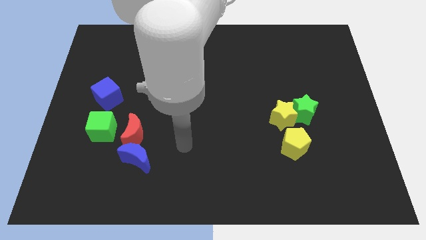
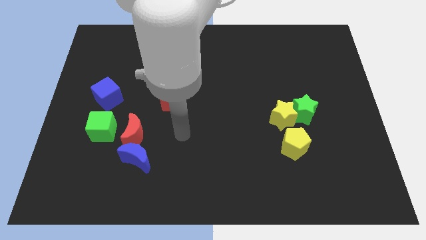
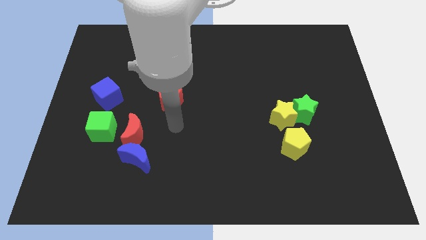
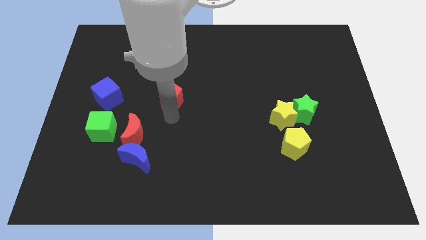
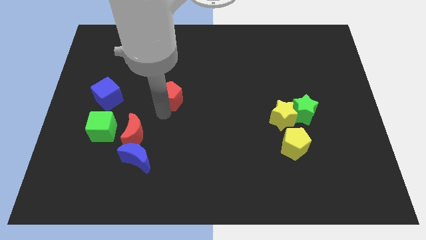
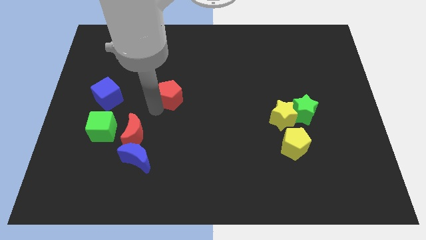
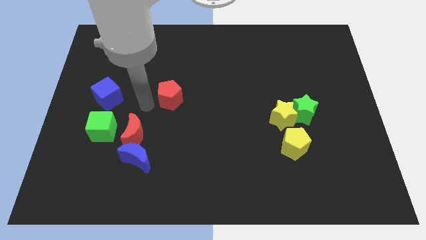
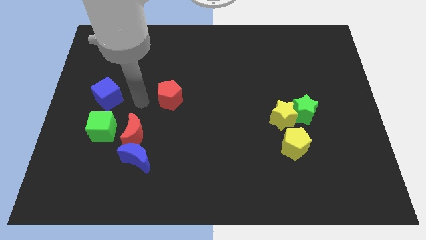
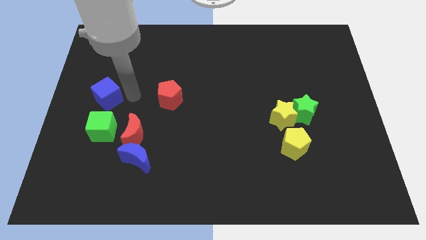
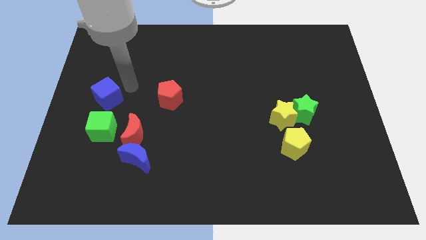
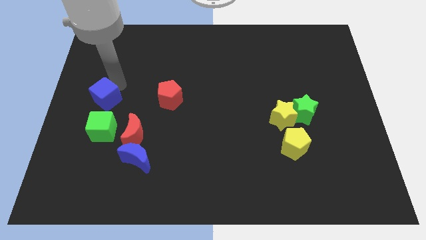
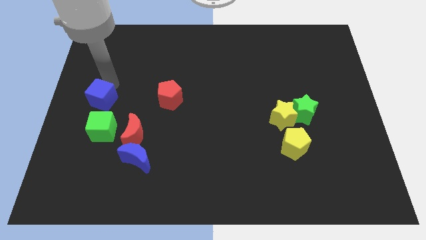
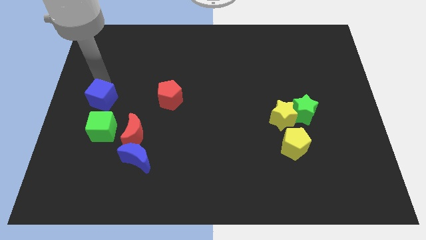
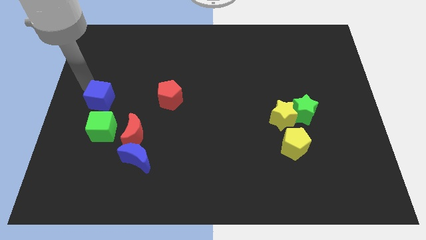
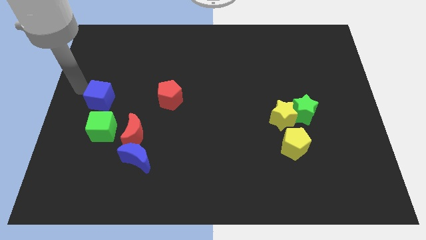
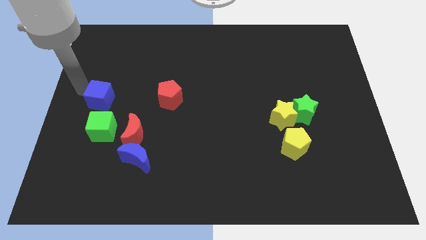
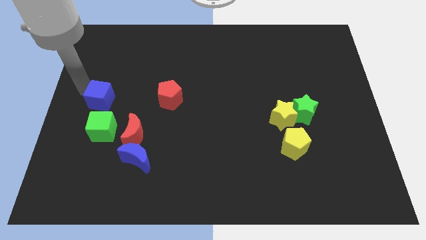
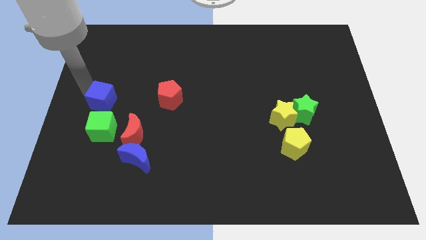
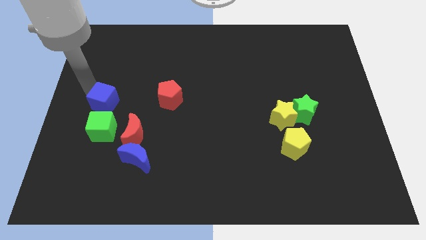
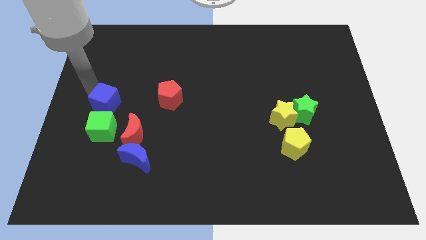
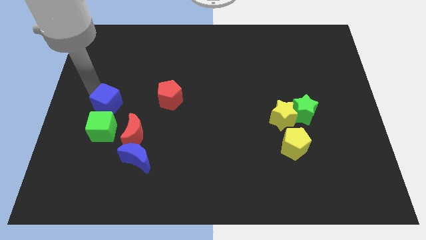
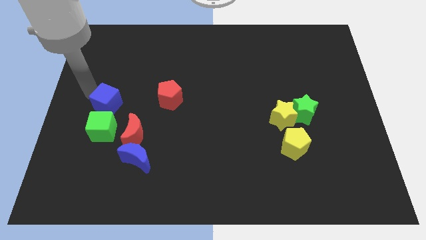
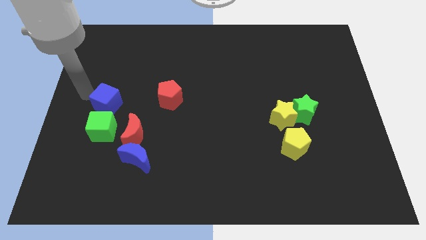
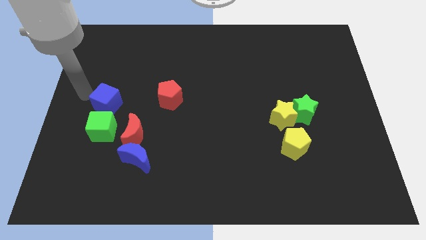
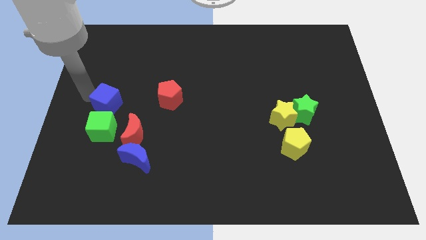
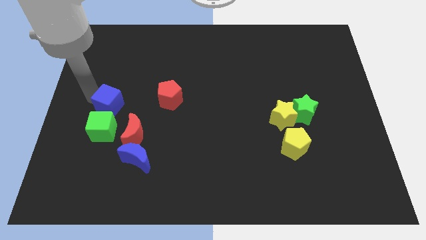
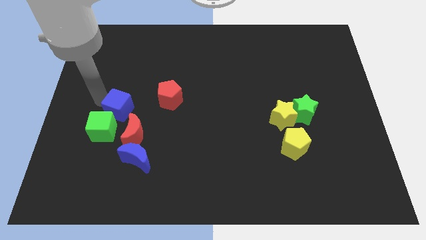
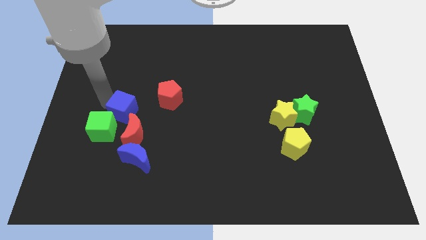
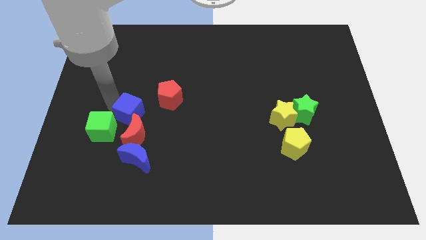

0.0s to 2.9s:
move the blue cube a little diagonally down and to the right

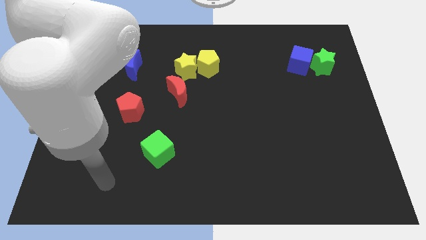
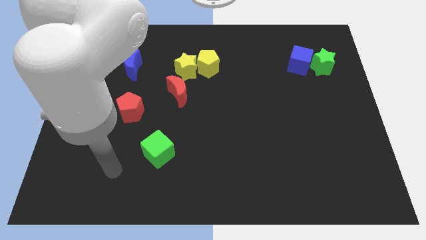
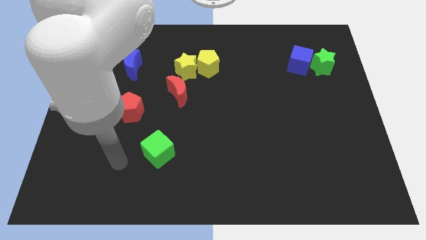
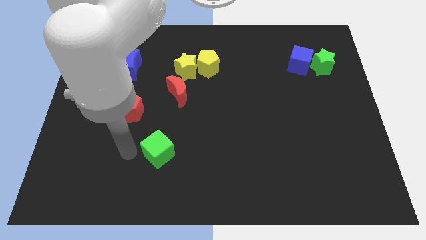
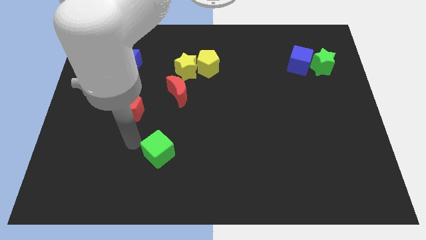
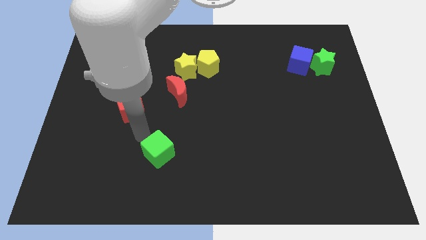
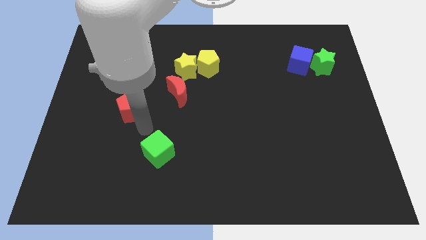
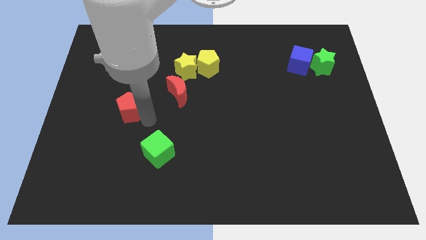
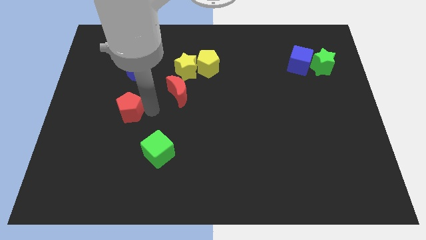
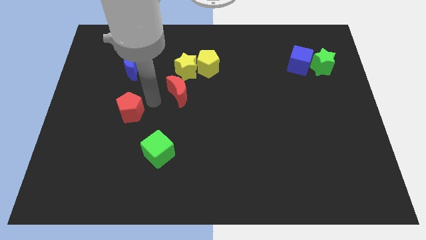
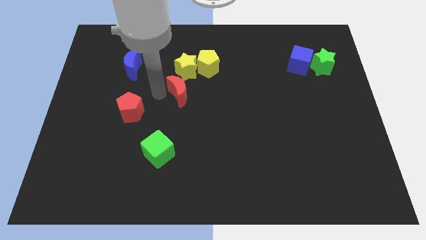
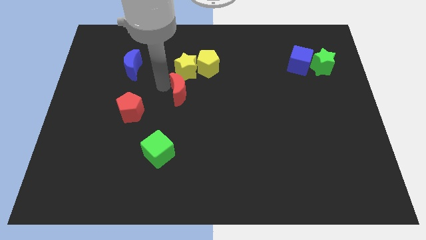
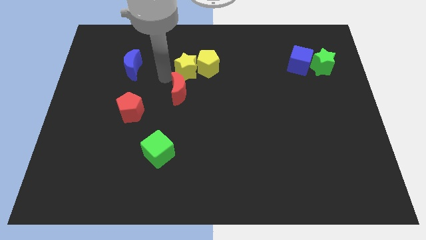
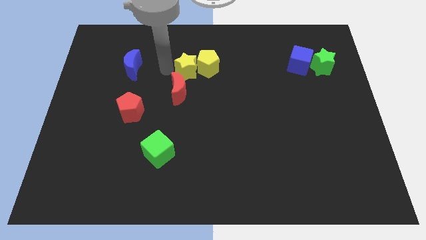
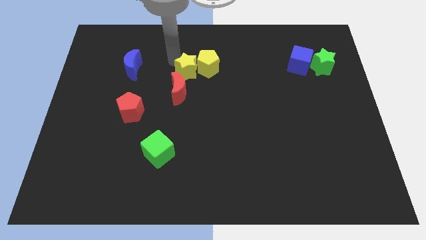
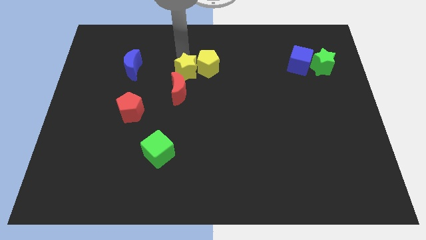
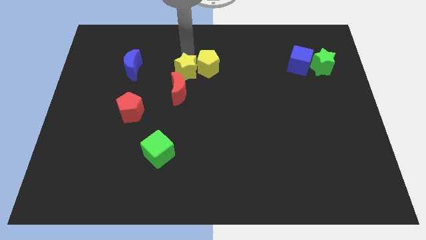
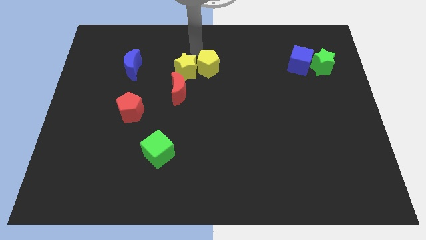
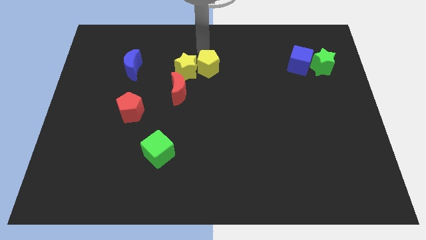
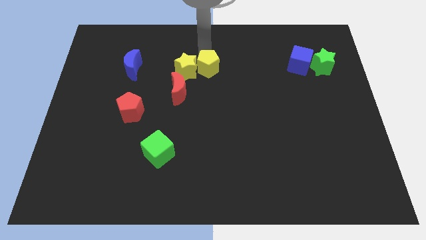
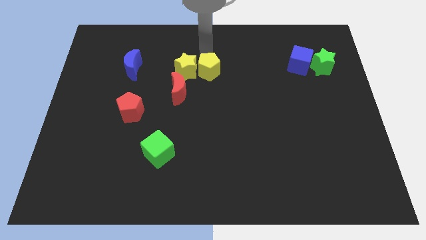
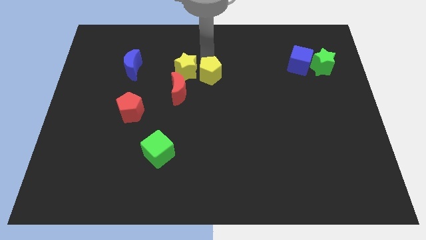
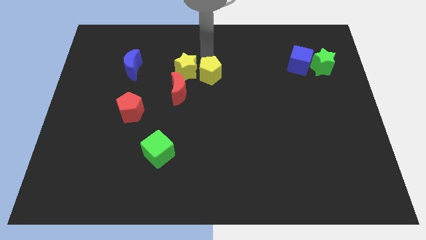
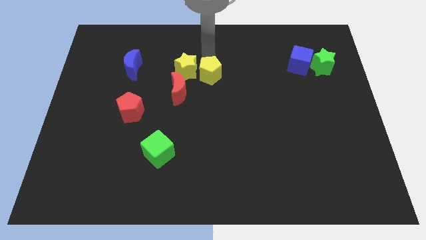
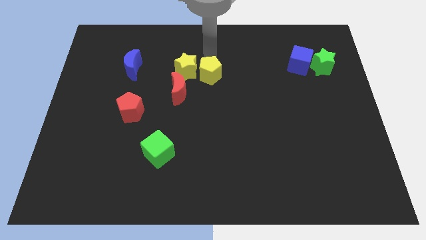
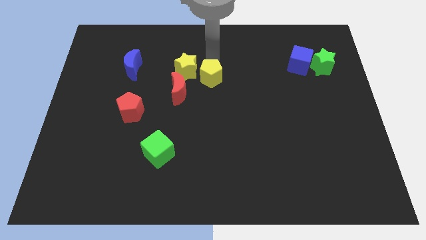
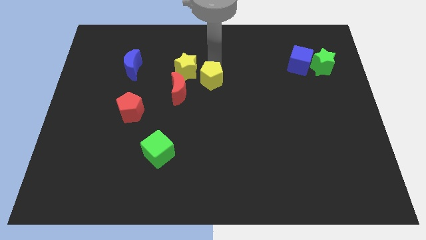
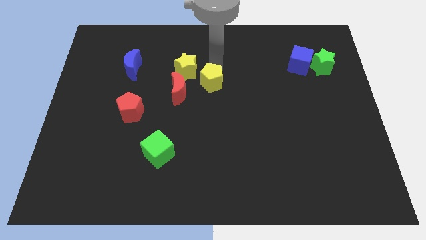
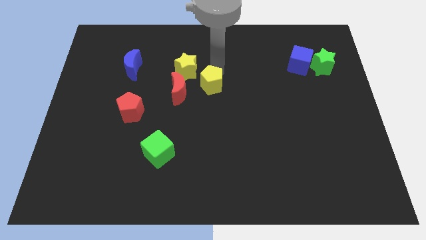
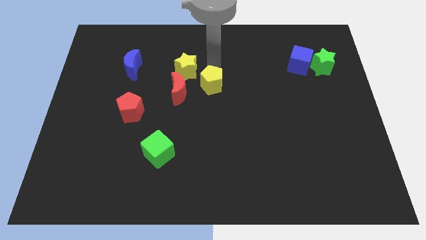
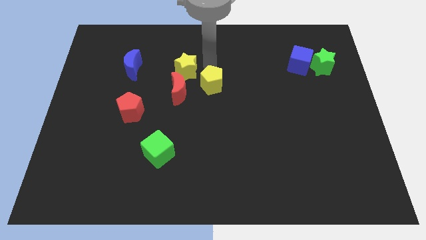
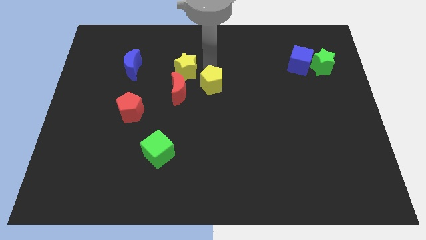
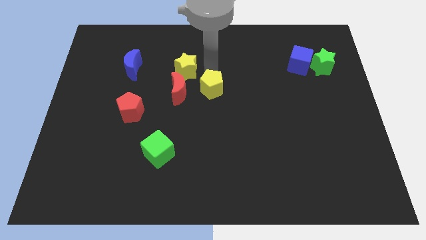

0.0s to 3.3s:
slightly slide the yellow pentagon downwards

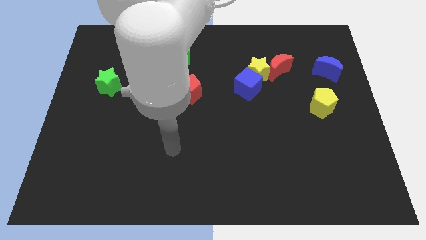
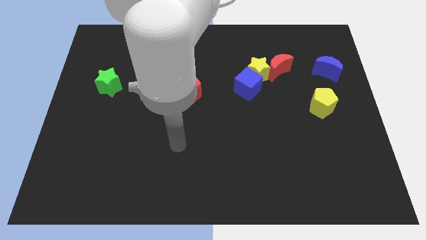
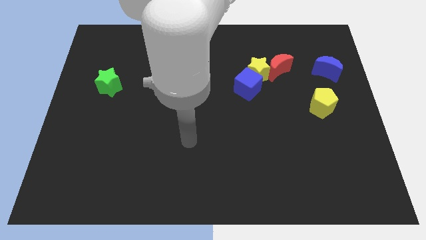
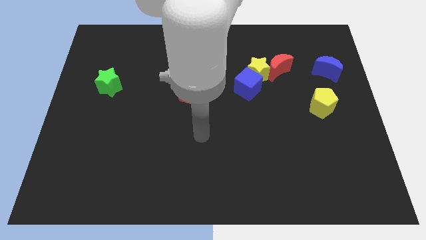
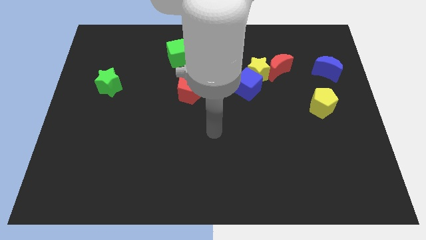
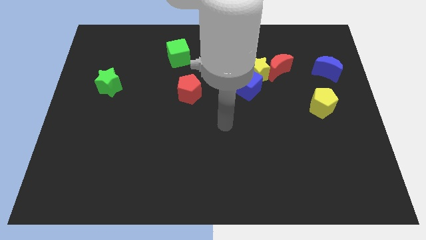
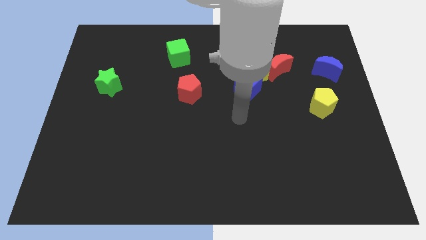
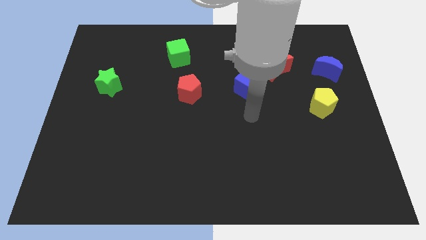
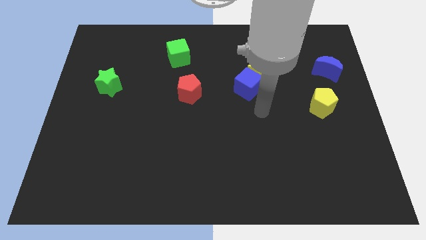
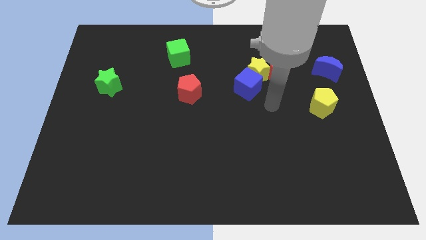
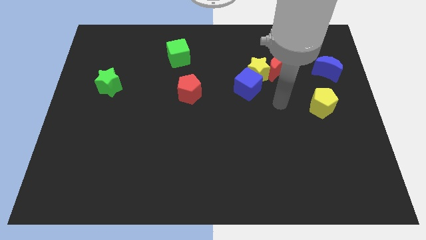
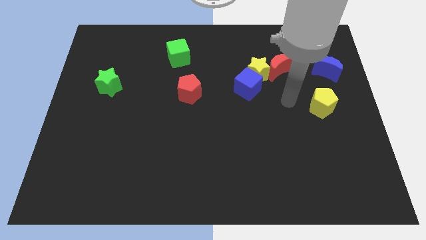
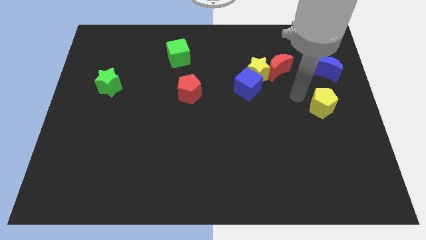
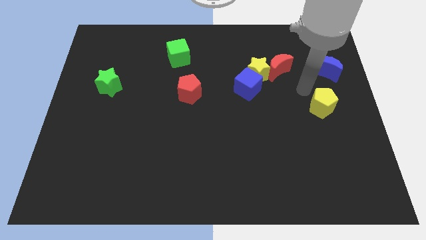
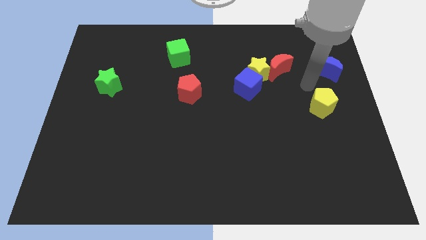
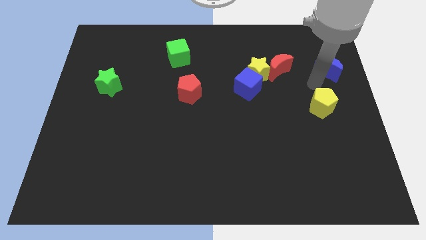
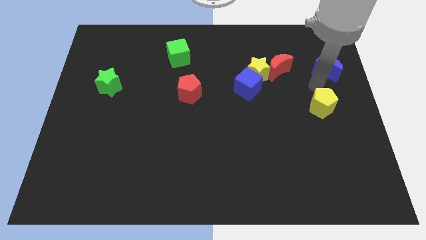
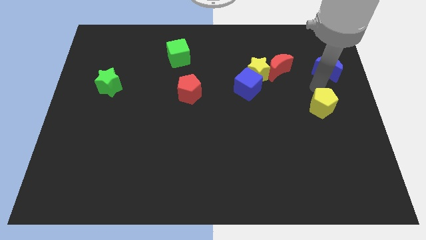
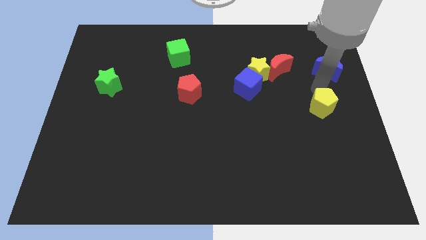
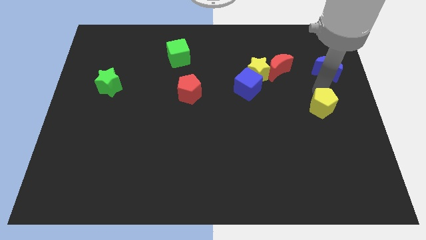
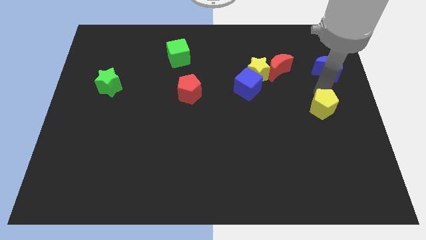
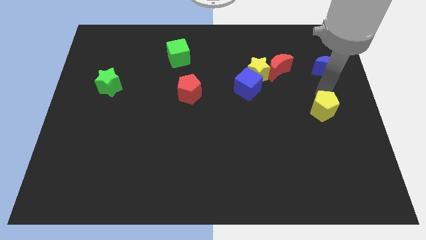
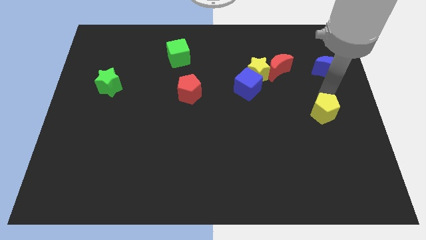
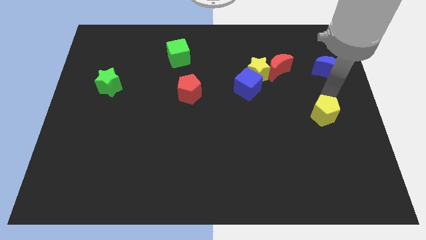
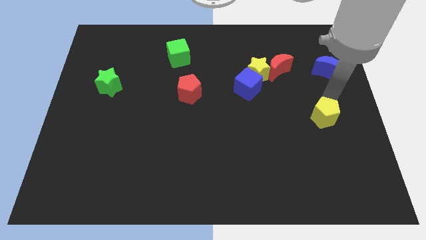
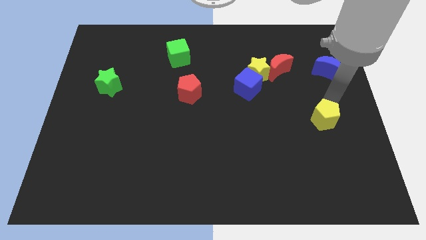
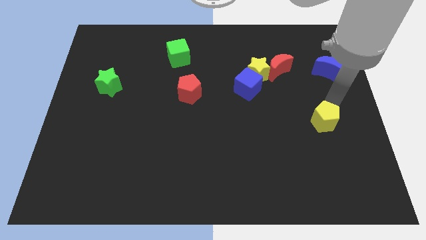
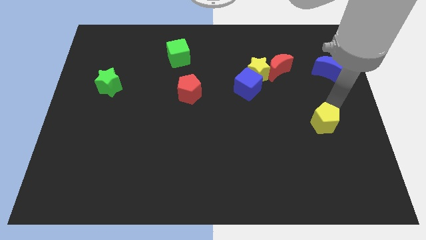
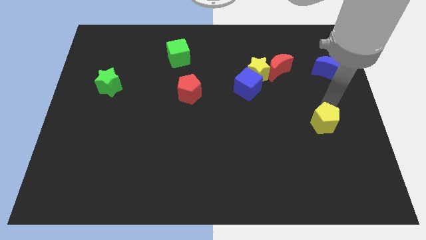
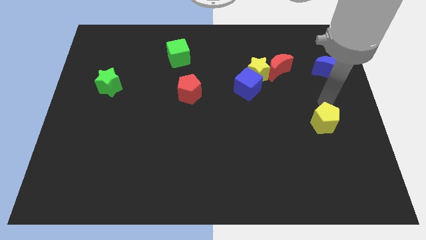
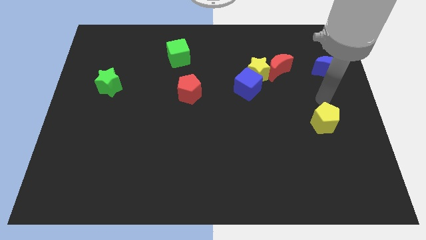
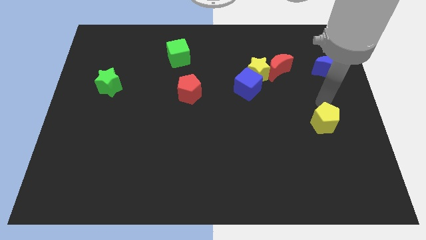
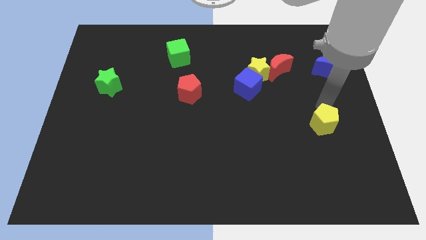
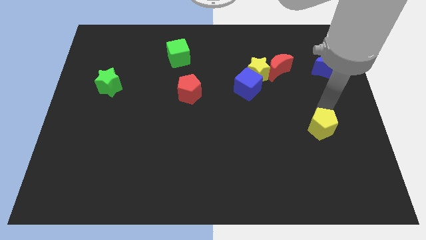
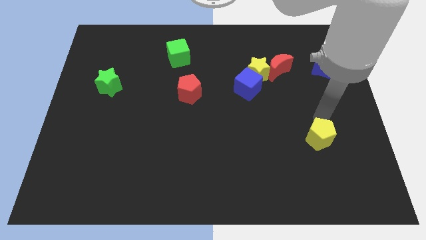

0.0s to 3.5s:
slide the yellow pentagon a bit down
